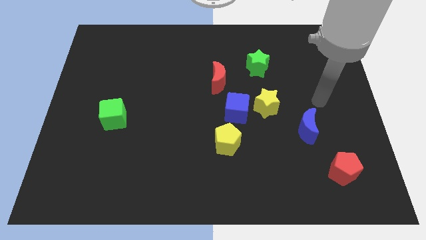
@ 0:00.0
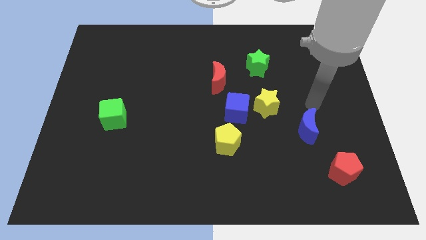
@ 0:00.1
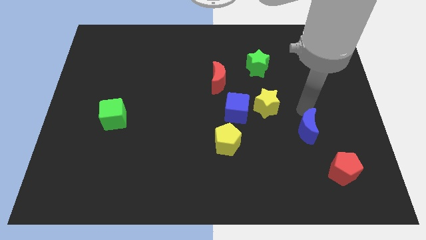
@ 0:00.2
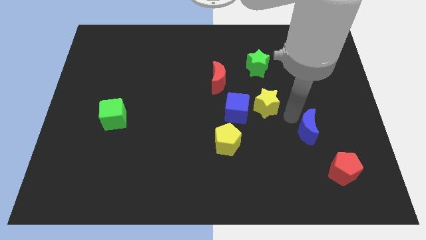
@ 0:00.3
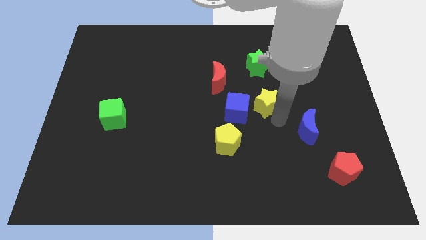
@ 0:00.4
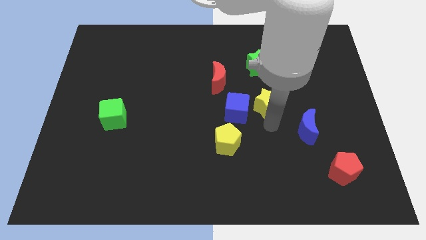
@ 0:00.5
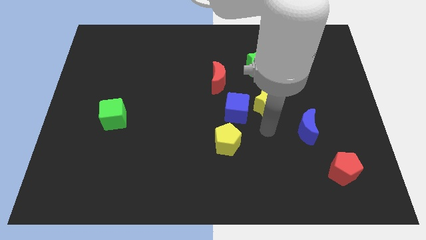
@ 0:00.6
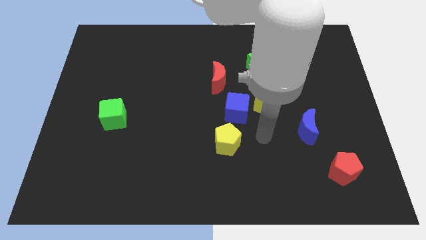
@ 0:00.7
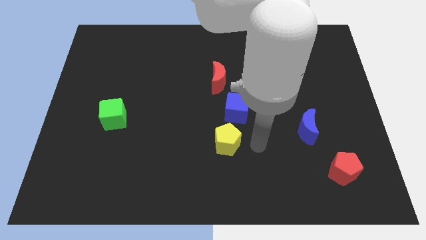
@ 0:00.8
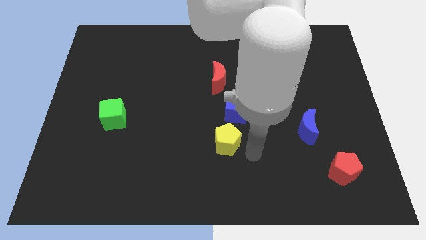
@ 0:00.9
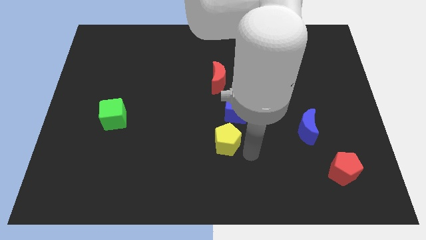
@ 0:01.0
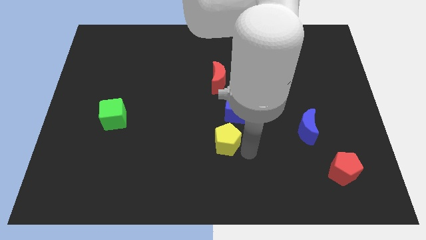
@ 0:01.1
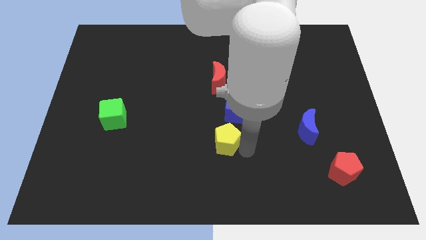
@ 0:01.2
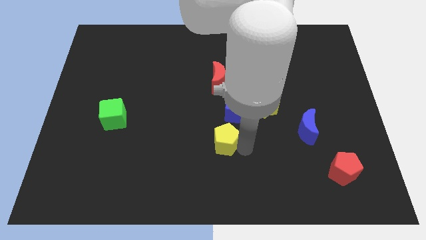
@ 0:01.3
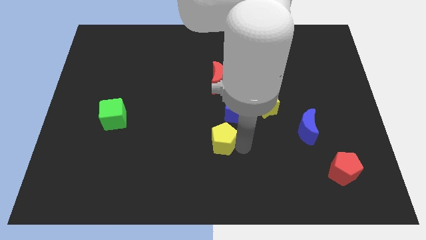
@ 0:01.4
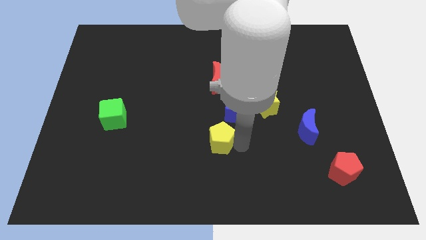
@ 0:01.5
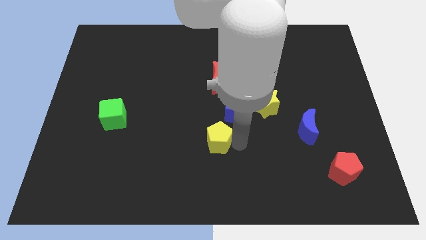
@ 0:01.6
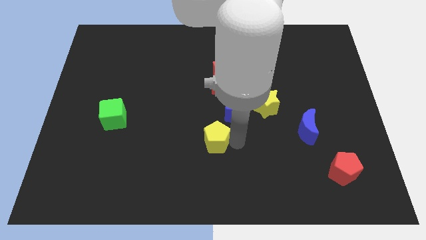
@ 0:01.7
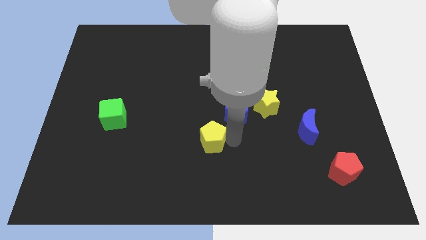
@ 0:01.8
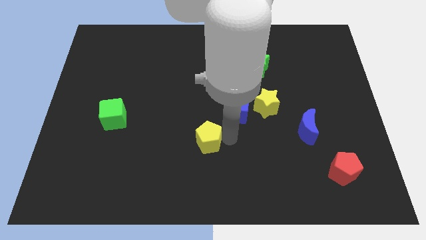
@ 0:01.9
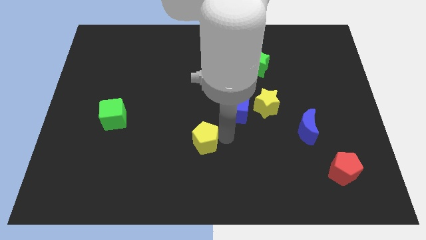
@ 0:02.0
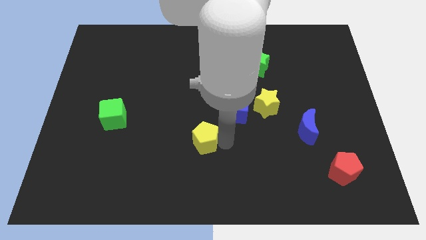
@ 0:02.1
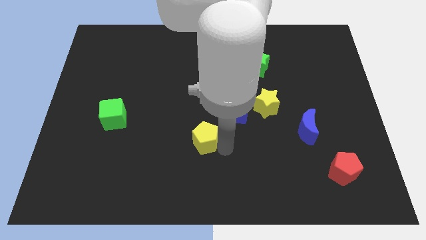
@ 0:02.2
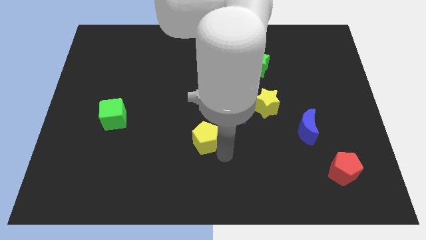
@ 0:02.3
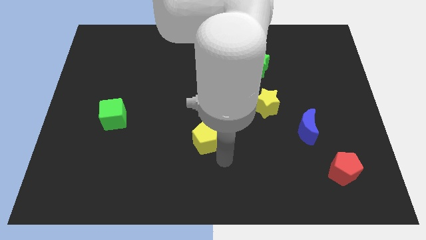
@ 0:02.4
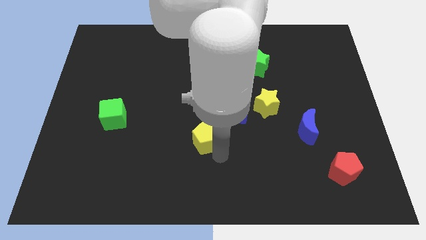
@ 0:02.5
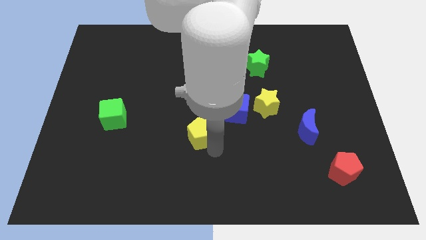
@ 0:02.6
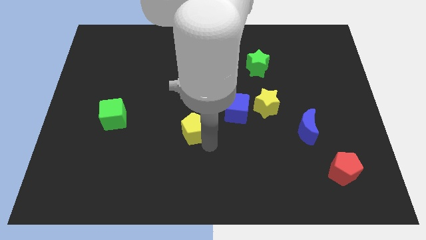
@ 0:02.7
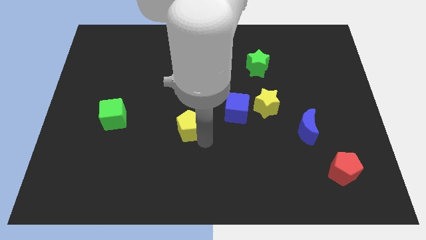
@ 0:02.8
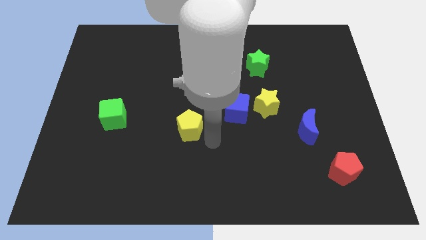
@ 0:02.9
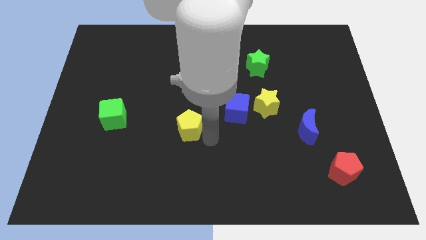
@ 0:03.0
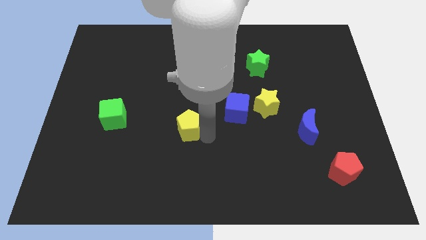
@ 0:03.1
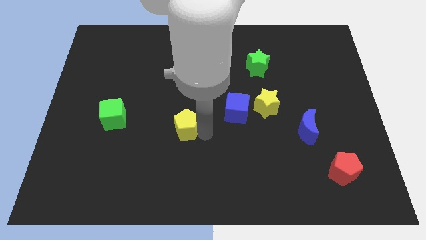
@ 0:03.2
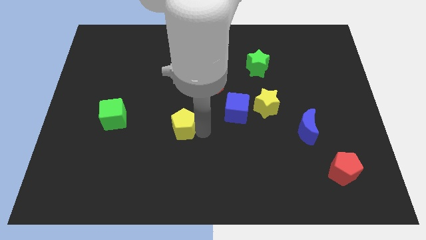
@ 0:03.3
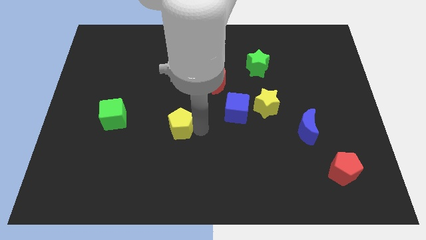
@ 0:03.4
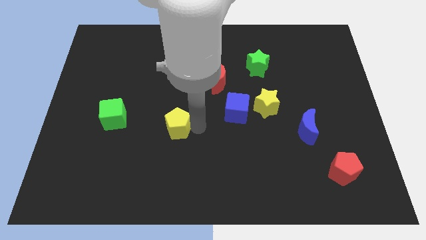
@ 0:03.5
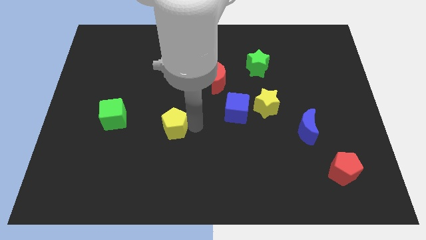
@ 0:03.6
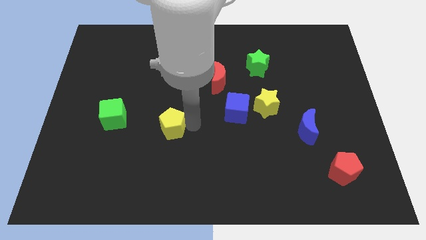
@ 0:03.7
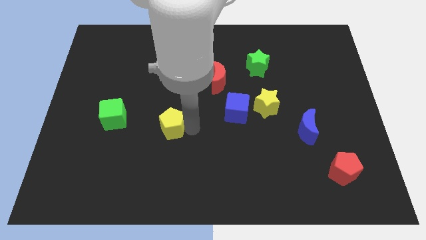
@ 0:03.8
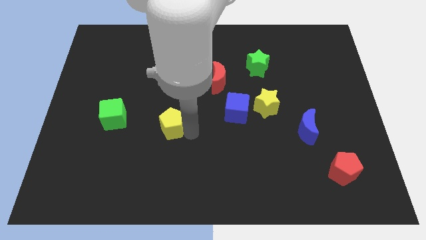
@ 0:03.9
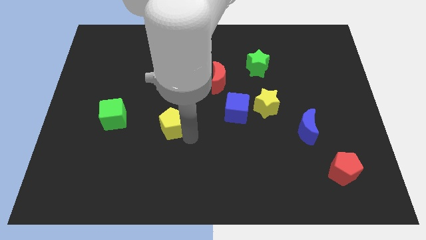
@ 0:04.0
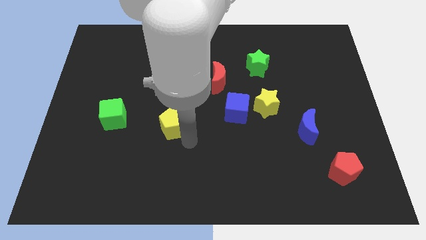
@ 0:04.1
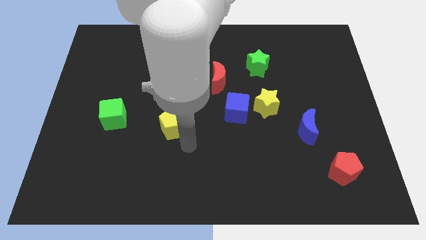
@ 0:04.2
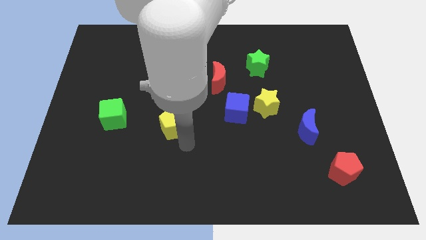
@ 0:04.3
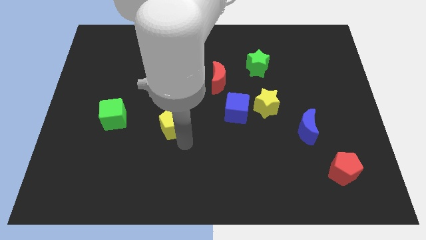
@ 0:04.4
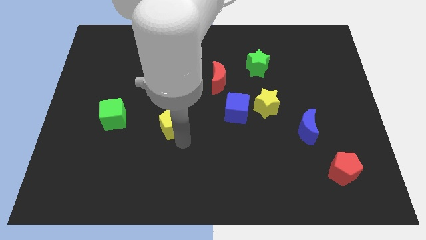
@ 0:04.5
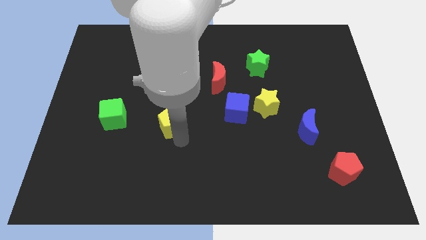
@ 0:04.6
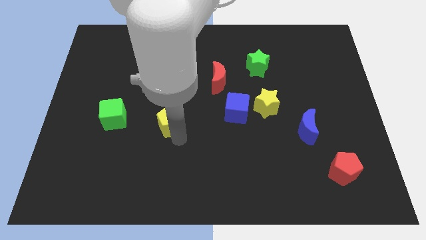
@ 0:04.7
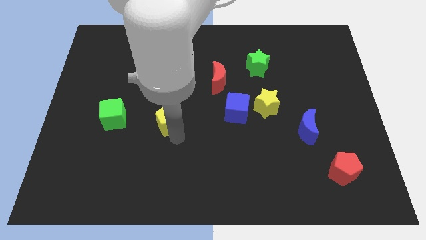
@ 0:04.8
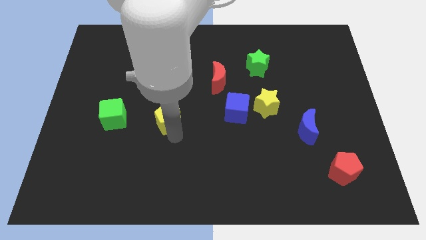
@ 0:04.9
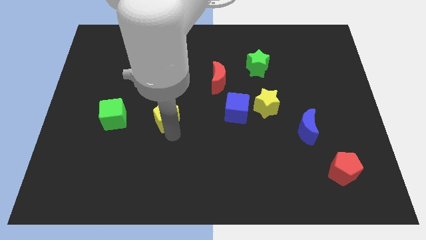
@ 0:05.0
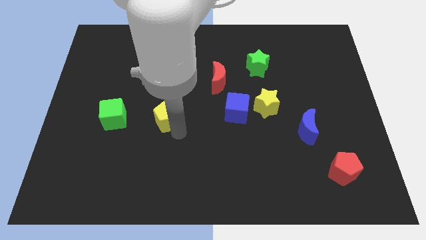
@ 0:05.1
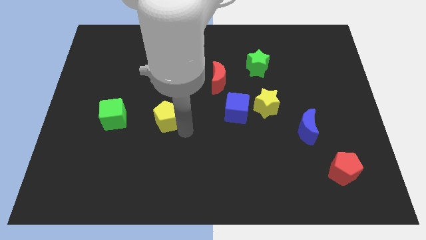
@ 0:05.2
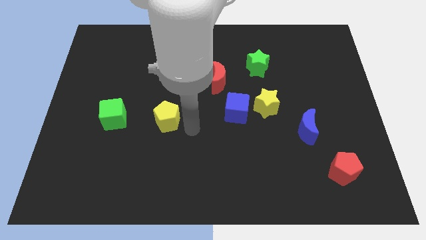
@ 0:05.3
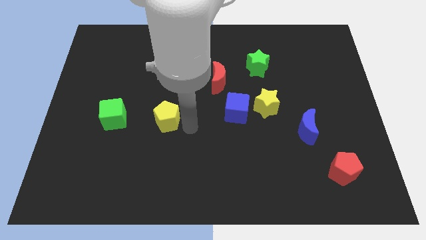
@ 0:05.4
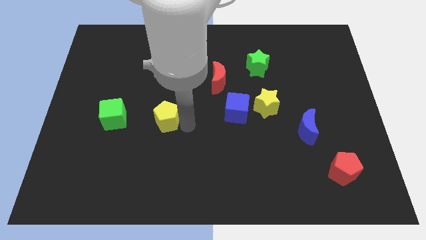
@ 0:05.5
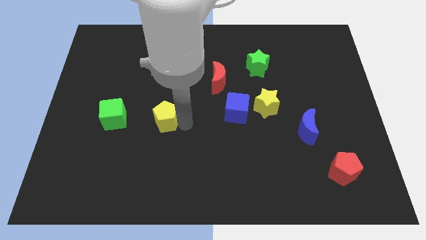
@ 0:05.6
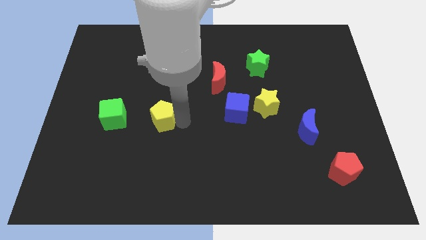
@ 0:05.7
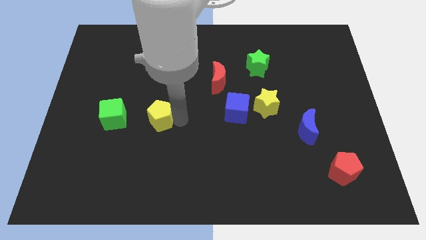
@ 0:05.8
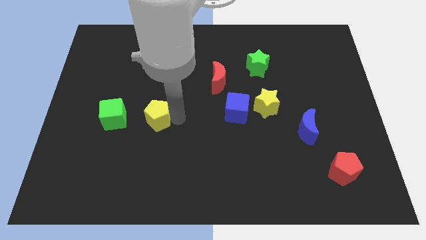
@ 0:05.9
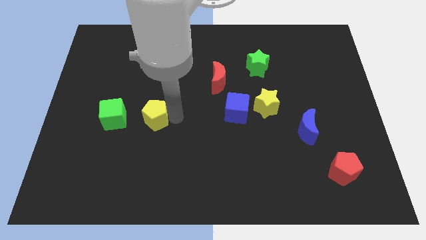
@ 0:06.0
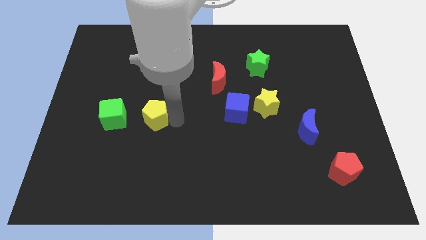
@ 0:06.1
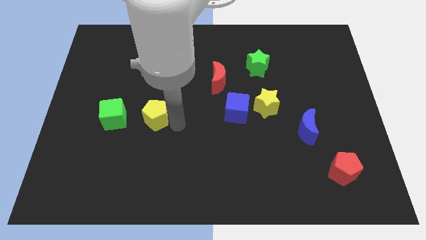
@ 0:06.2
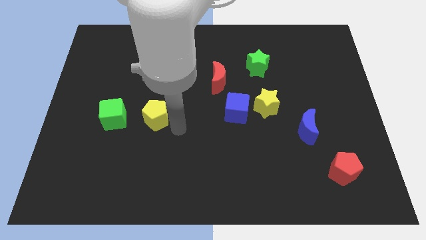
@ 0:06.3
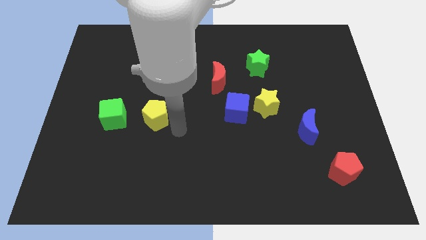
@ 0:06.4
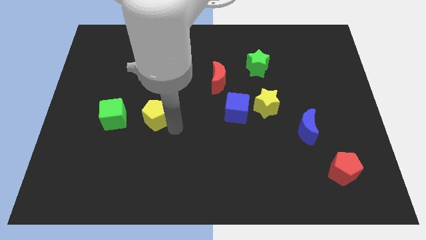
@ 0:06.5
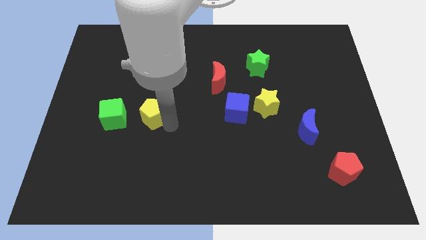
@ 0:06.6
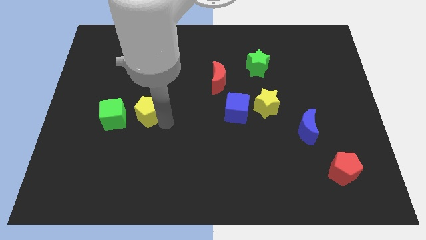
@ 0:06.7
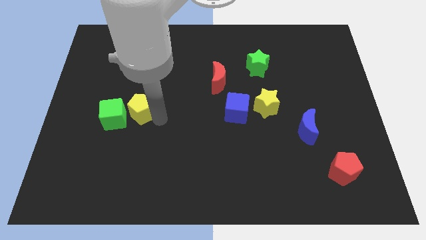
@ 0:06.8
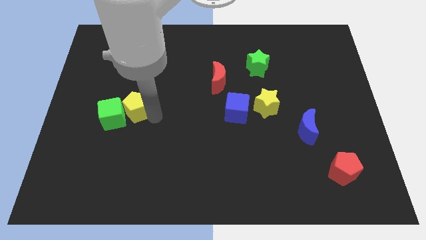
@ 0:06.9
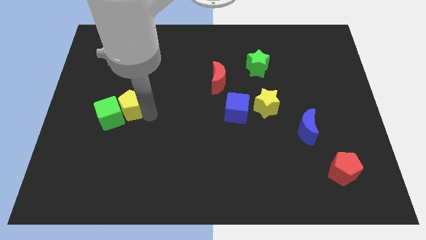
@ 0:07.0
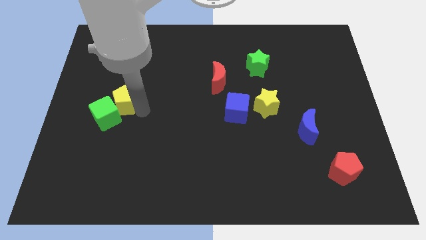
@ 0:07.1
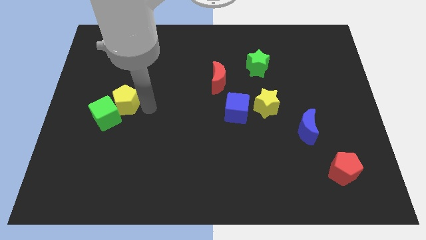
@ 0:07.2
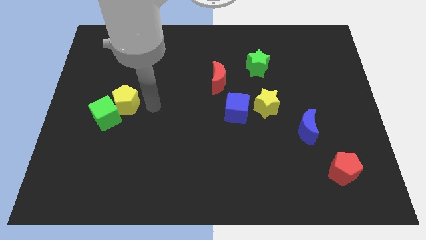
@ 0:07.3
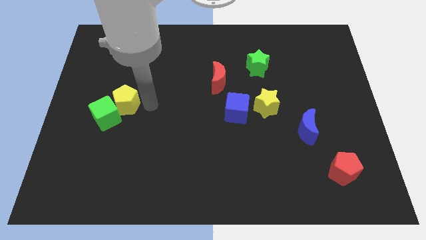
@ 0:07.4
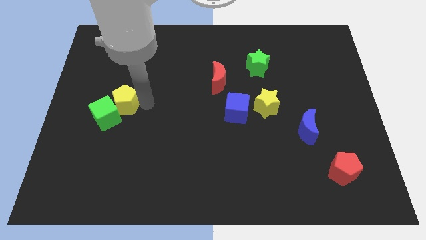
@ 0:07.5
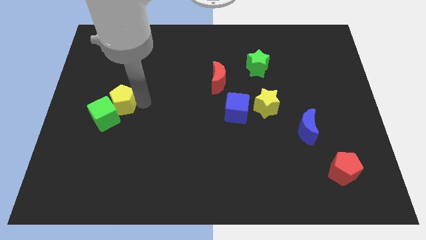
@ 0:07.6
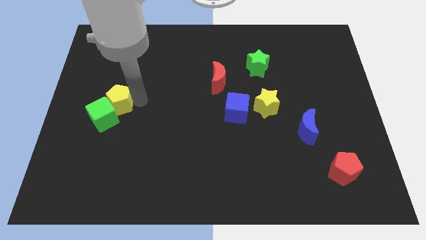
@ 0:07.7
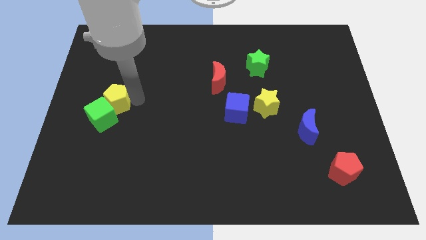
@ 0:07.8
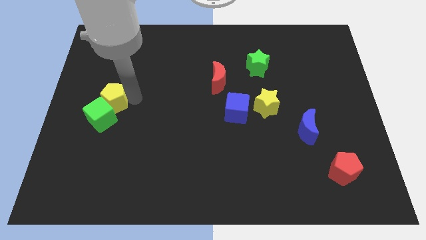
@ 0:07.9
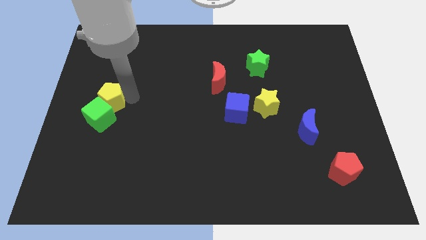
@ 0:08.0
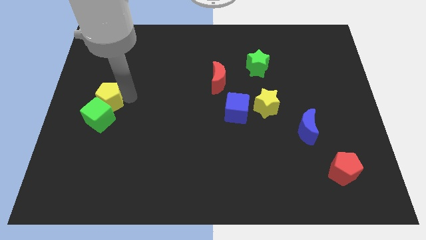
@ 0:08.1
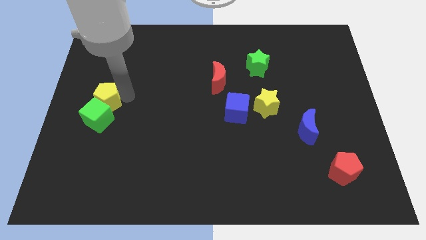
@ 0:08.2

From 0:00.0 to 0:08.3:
put the yellow pentagon to the center left
